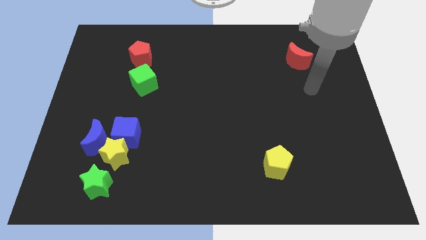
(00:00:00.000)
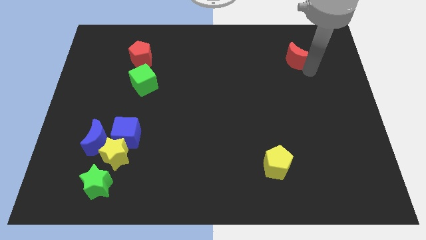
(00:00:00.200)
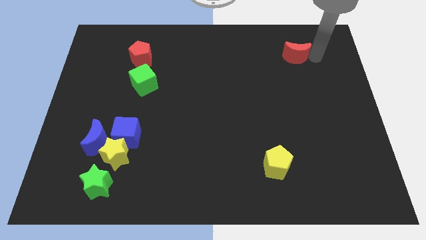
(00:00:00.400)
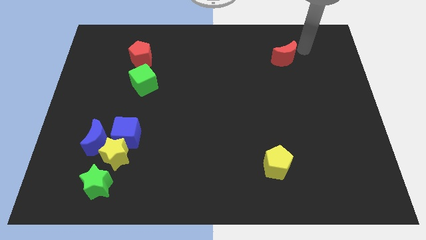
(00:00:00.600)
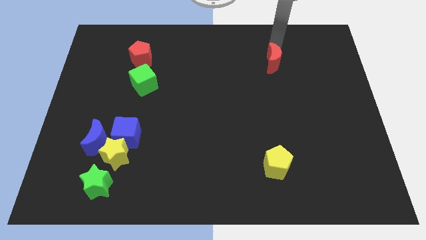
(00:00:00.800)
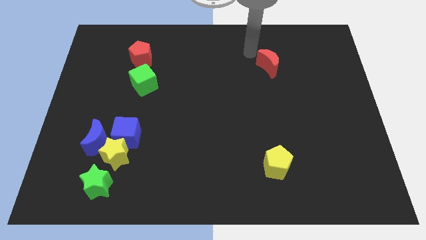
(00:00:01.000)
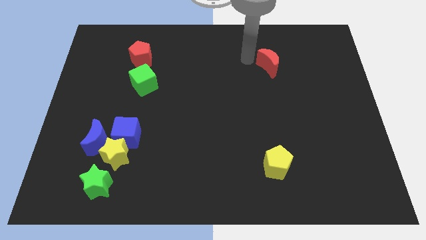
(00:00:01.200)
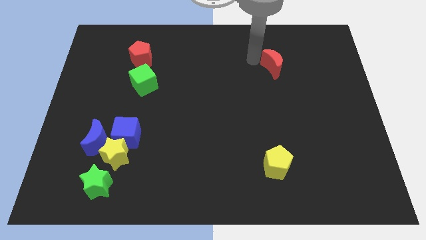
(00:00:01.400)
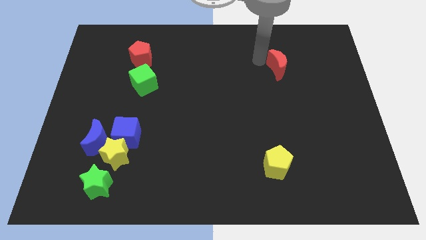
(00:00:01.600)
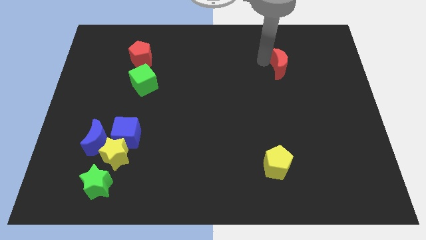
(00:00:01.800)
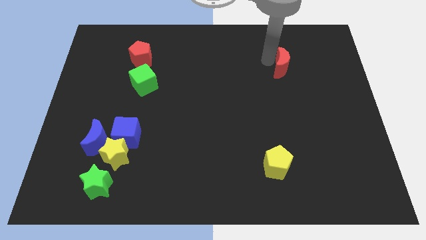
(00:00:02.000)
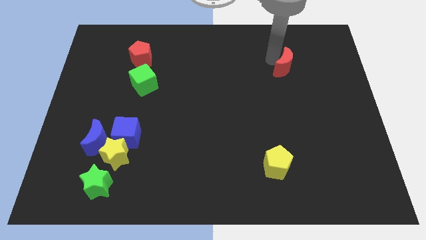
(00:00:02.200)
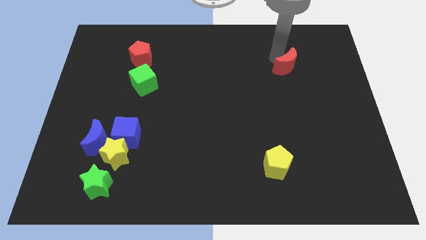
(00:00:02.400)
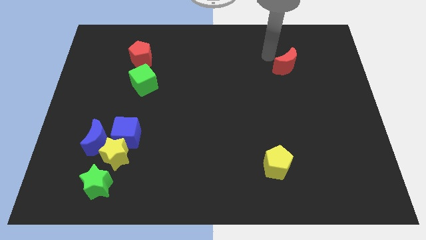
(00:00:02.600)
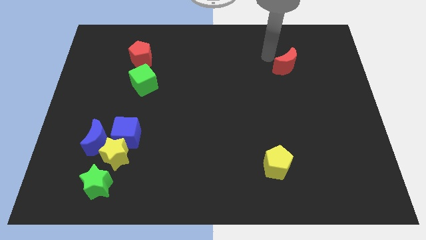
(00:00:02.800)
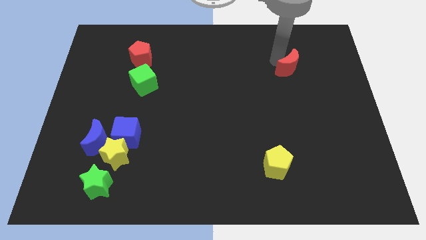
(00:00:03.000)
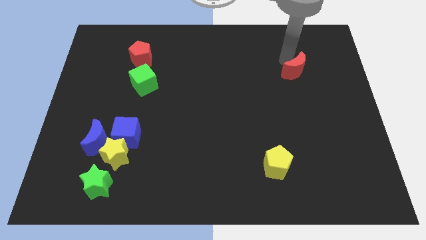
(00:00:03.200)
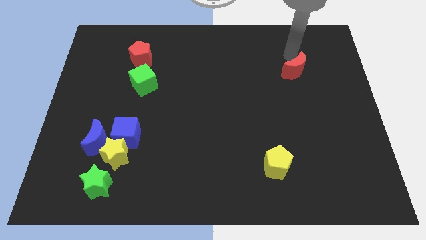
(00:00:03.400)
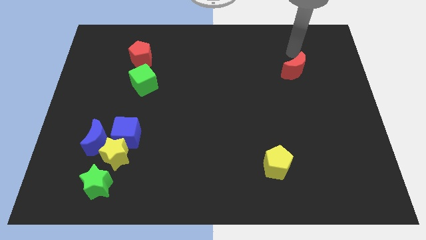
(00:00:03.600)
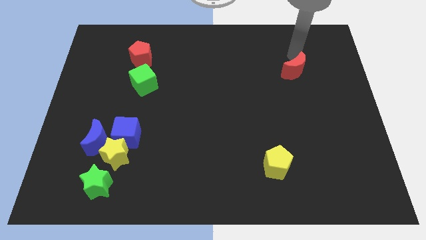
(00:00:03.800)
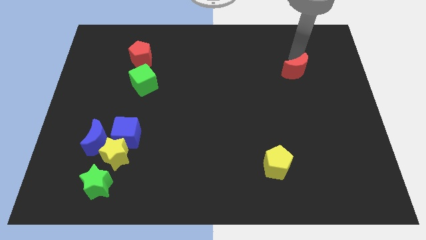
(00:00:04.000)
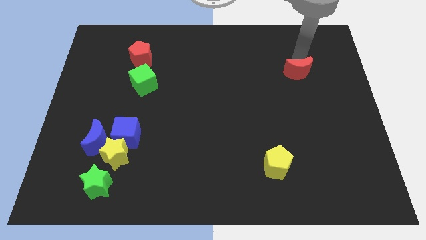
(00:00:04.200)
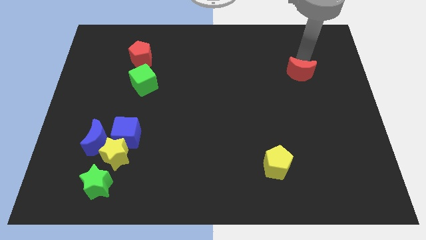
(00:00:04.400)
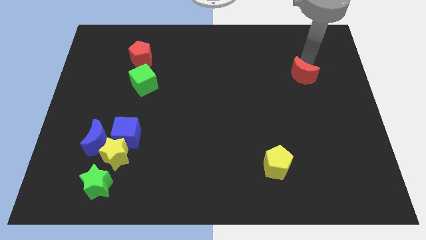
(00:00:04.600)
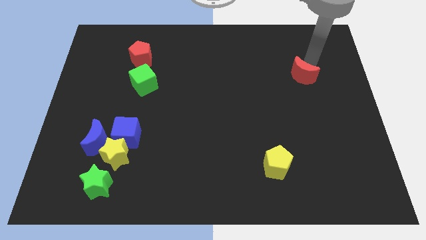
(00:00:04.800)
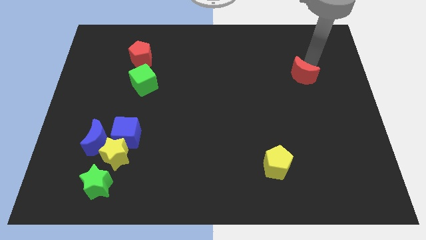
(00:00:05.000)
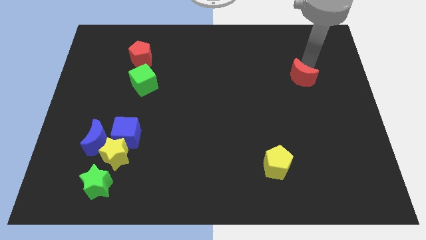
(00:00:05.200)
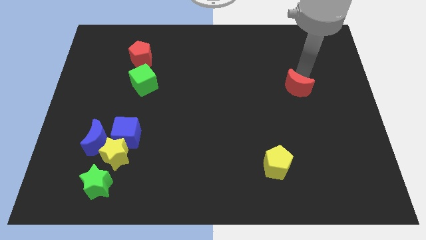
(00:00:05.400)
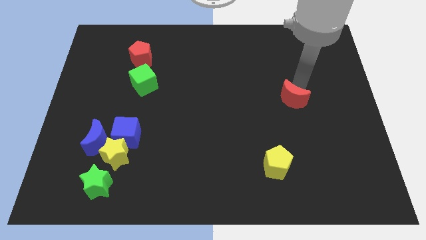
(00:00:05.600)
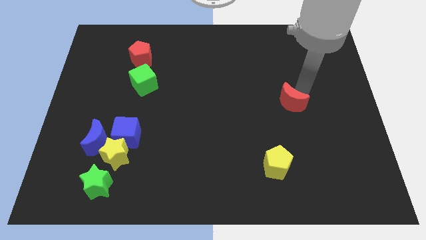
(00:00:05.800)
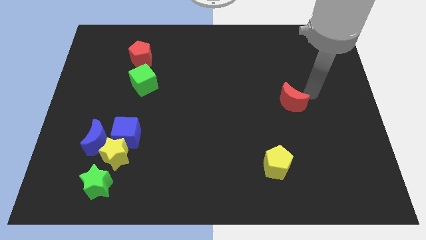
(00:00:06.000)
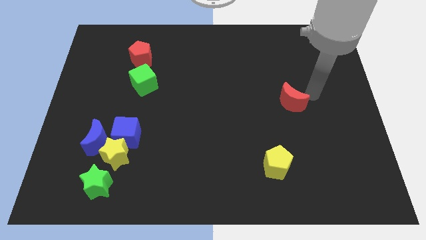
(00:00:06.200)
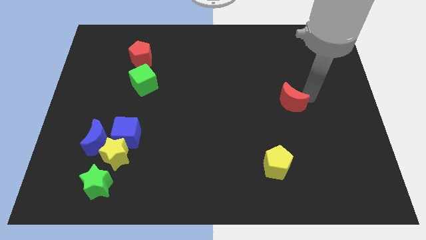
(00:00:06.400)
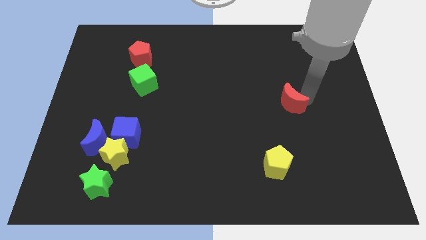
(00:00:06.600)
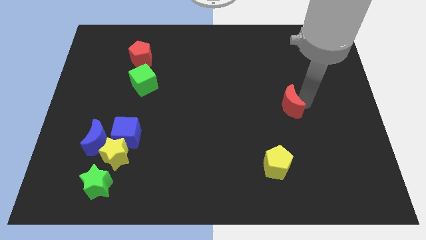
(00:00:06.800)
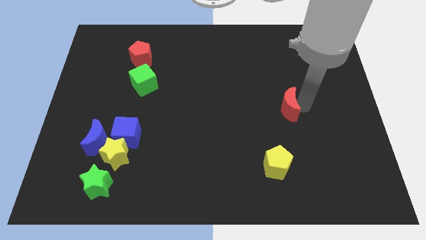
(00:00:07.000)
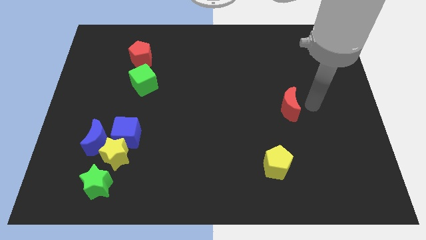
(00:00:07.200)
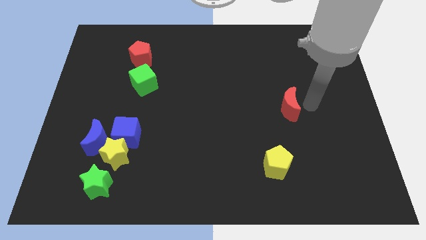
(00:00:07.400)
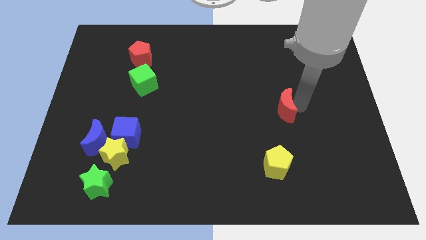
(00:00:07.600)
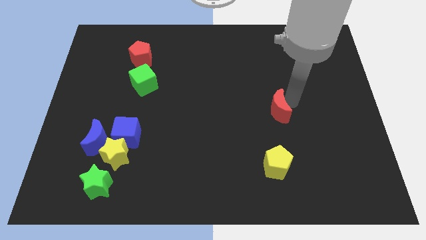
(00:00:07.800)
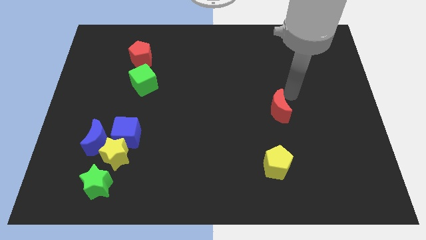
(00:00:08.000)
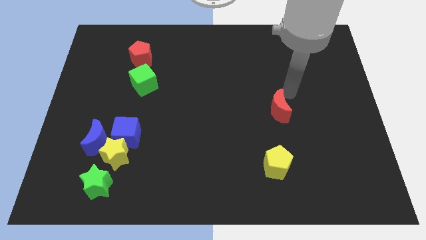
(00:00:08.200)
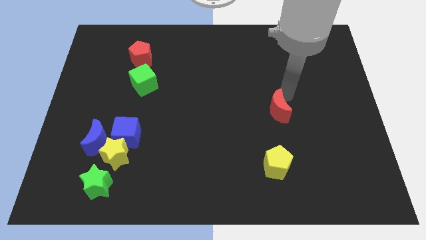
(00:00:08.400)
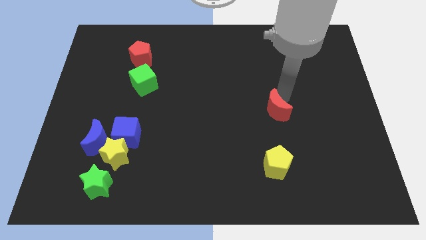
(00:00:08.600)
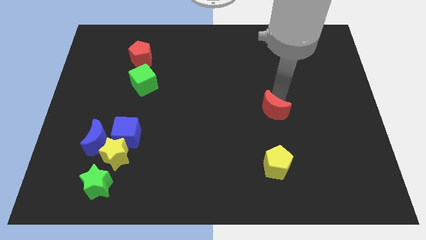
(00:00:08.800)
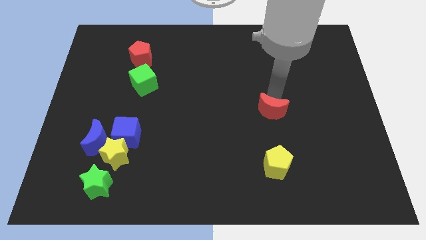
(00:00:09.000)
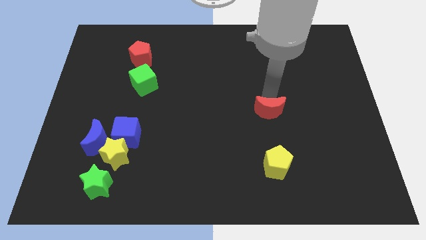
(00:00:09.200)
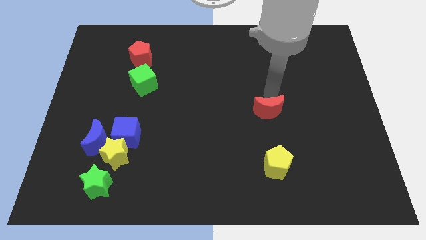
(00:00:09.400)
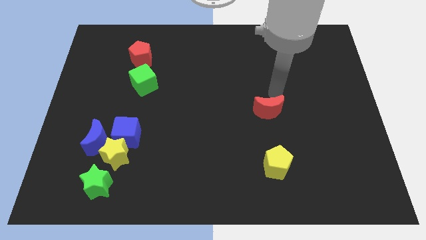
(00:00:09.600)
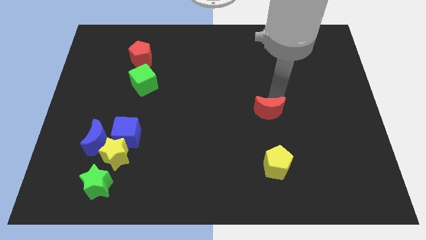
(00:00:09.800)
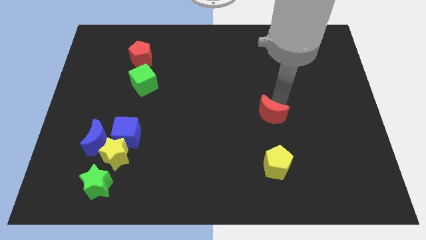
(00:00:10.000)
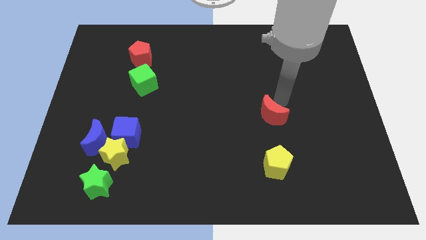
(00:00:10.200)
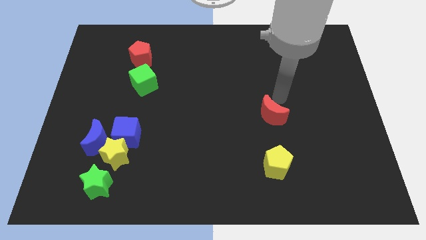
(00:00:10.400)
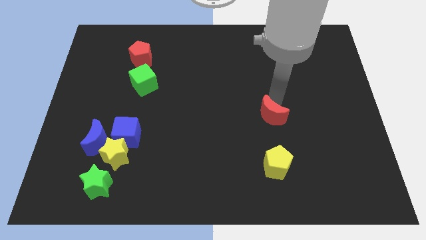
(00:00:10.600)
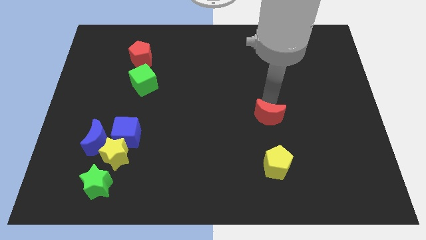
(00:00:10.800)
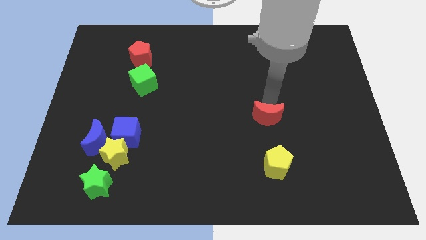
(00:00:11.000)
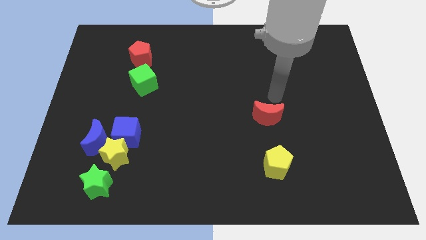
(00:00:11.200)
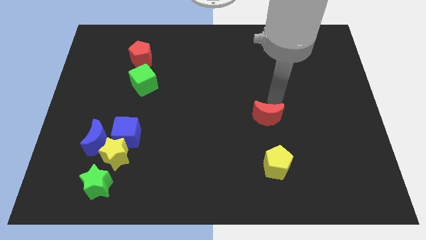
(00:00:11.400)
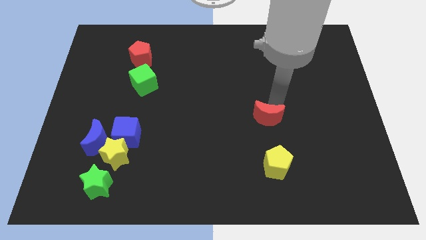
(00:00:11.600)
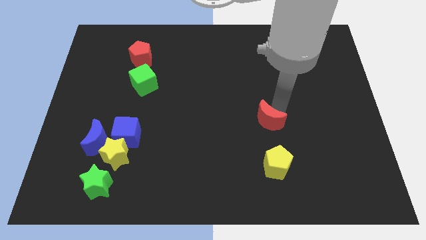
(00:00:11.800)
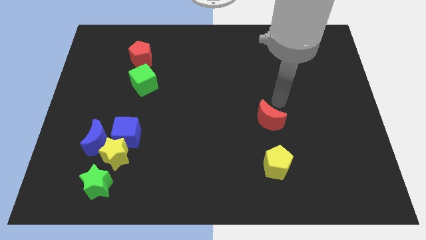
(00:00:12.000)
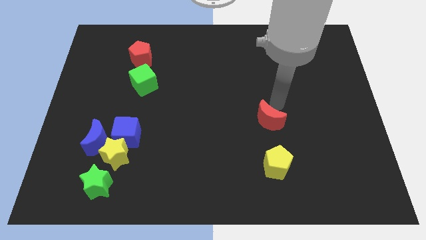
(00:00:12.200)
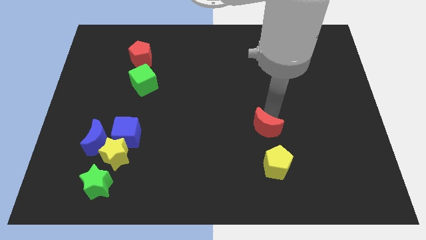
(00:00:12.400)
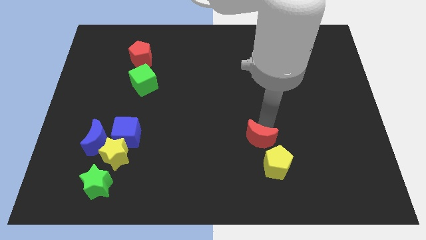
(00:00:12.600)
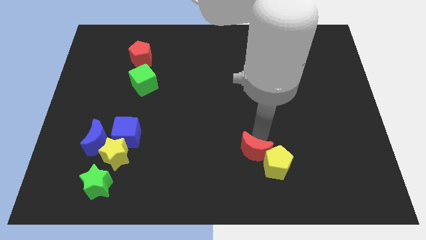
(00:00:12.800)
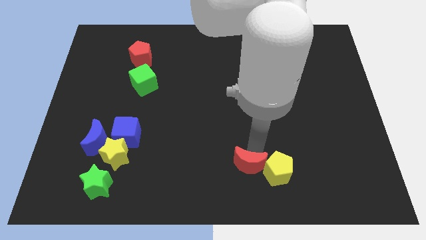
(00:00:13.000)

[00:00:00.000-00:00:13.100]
put the red moon to the bottom

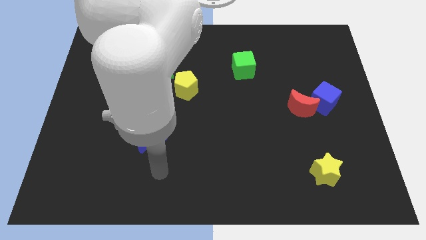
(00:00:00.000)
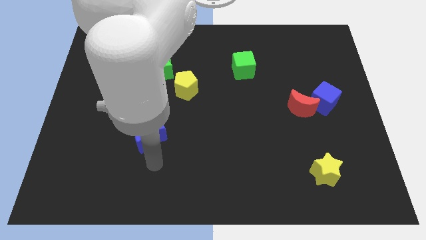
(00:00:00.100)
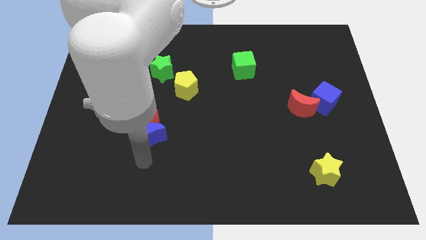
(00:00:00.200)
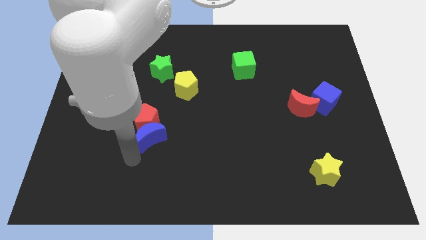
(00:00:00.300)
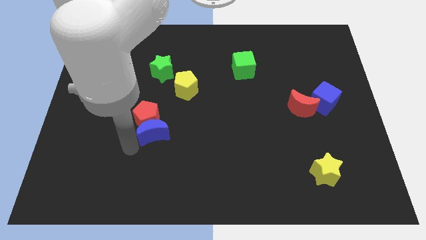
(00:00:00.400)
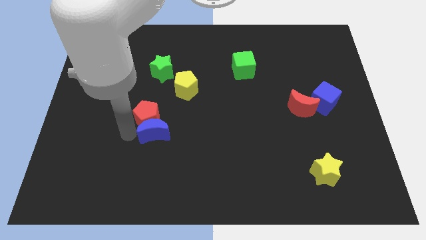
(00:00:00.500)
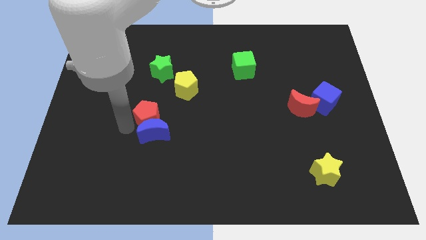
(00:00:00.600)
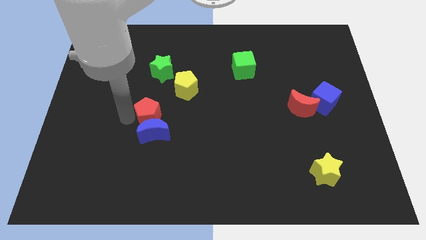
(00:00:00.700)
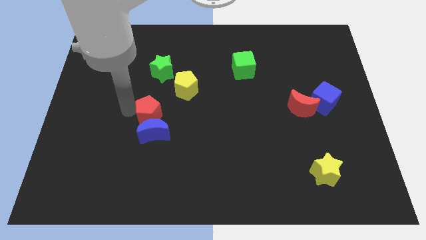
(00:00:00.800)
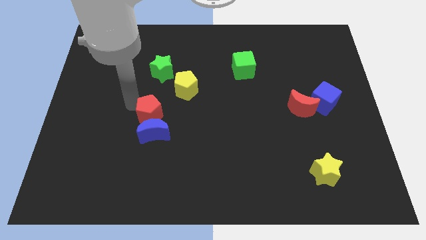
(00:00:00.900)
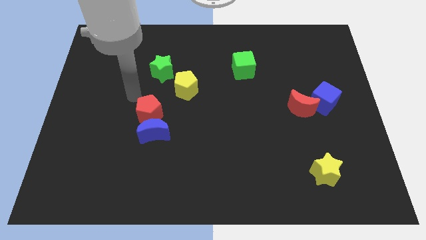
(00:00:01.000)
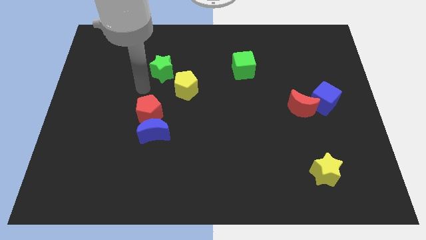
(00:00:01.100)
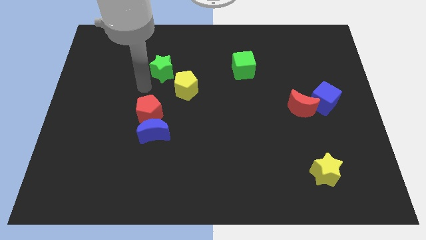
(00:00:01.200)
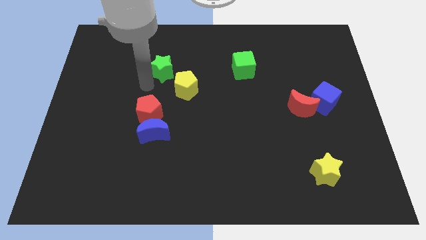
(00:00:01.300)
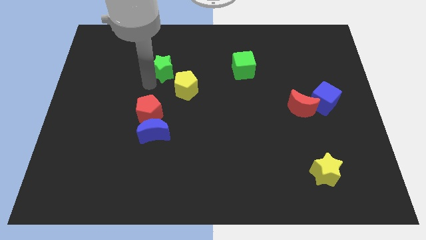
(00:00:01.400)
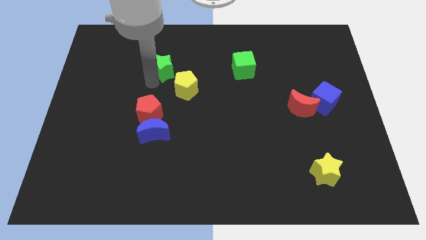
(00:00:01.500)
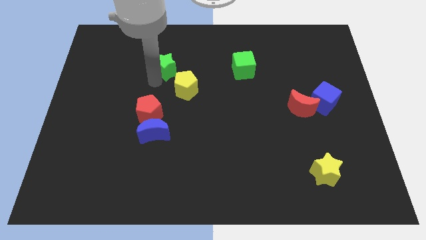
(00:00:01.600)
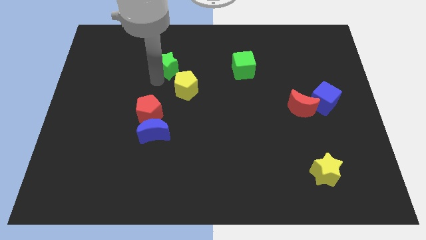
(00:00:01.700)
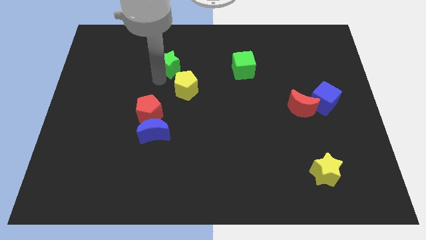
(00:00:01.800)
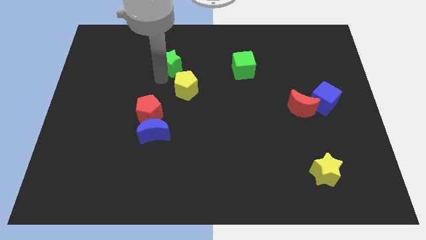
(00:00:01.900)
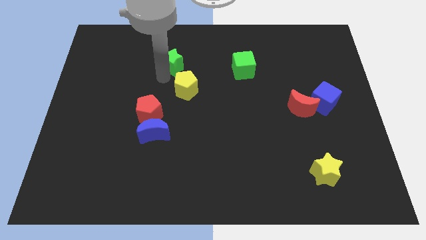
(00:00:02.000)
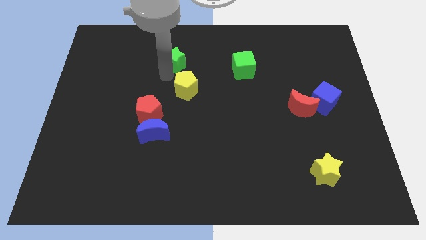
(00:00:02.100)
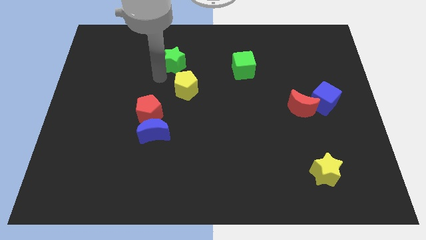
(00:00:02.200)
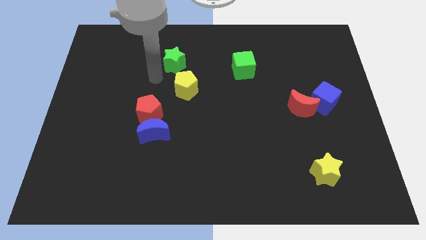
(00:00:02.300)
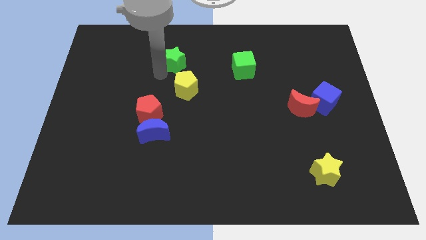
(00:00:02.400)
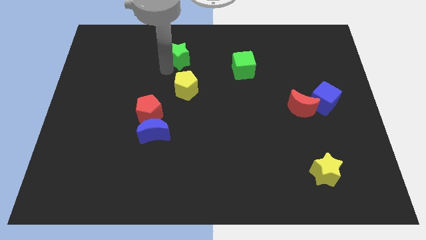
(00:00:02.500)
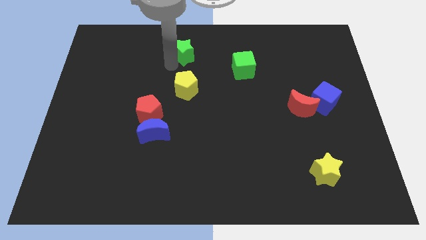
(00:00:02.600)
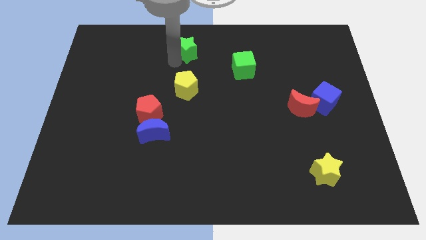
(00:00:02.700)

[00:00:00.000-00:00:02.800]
slide the green star to the top side
